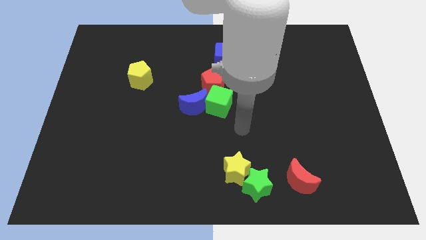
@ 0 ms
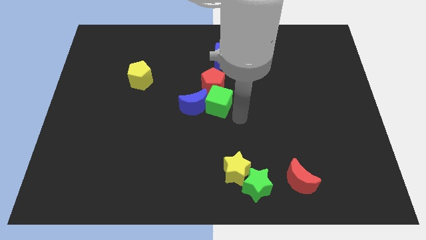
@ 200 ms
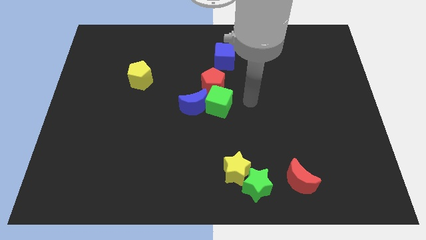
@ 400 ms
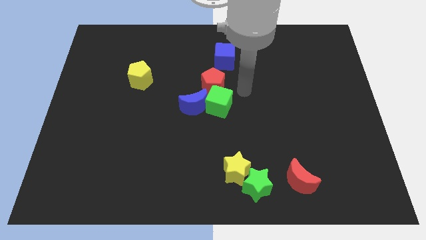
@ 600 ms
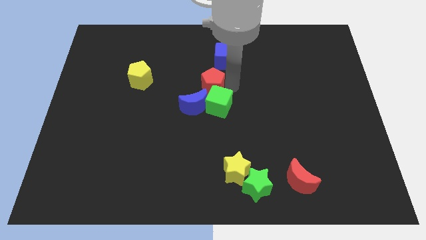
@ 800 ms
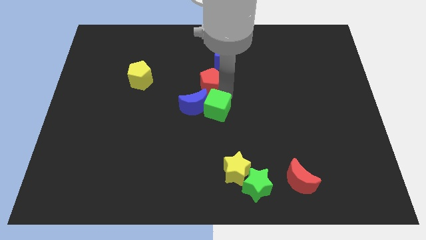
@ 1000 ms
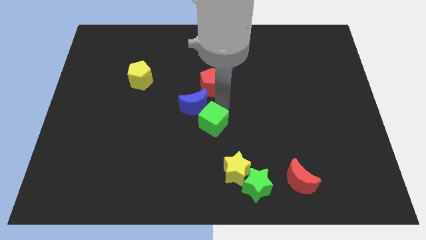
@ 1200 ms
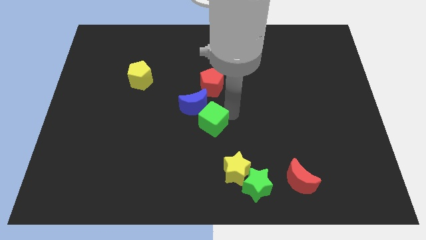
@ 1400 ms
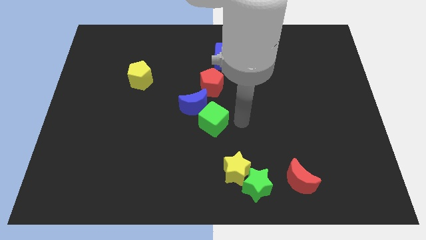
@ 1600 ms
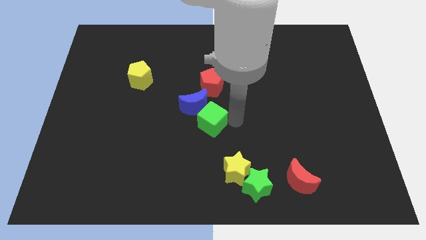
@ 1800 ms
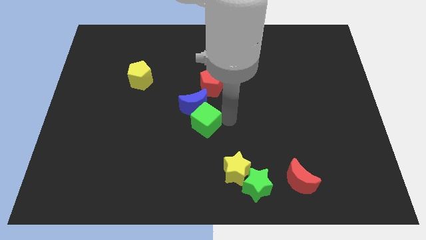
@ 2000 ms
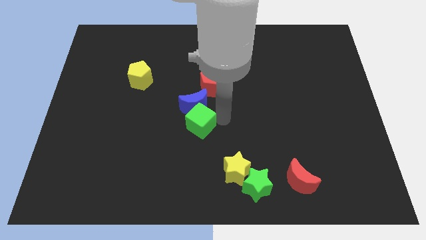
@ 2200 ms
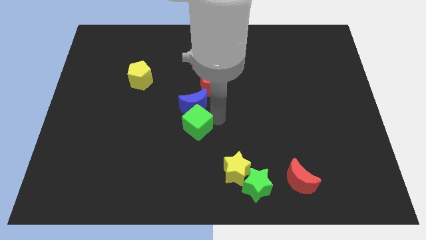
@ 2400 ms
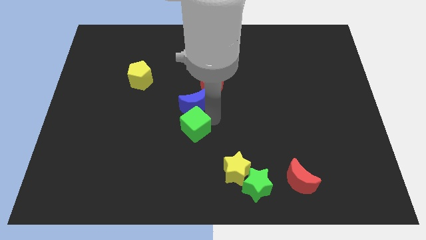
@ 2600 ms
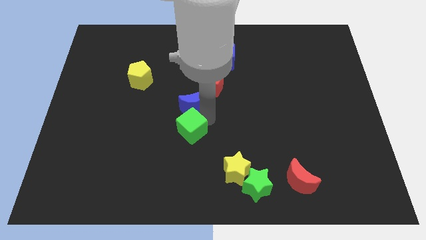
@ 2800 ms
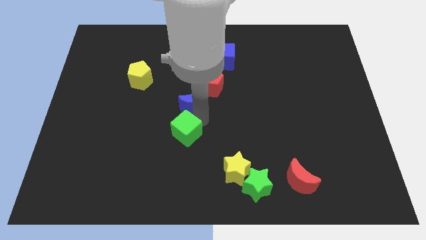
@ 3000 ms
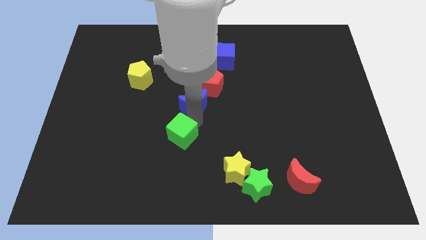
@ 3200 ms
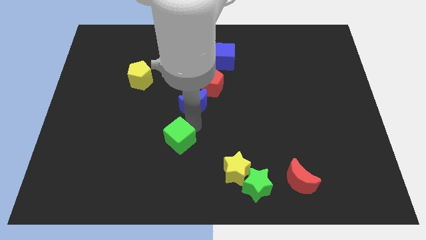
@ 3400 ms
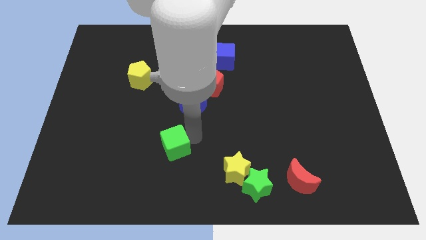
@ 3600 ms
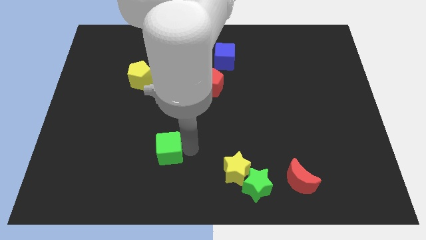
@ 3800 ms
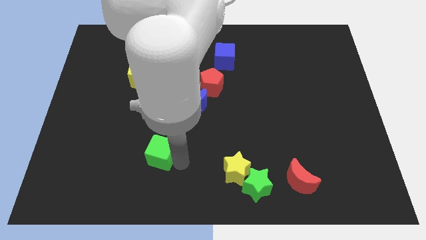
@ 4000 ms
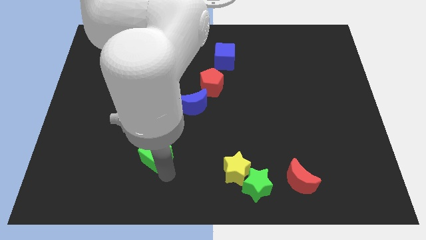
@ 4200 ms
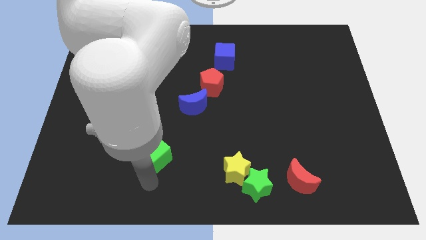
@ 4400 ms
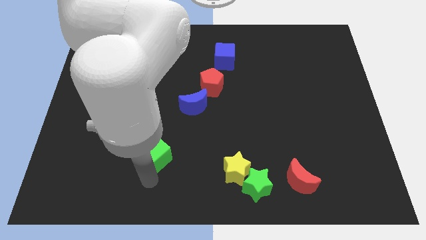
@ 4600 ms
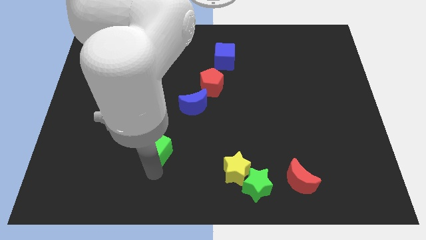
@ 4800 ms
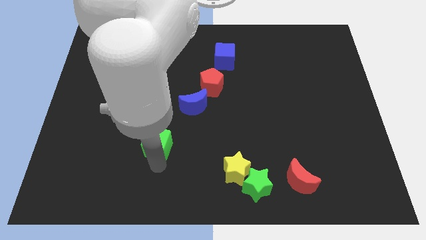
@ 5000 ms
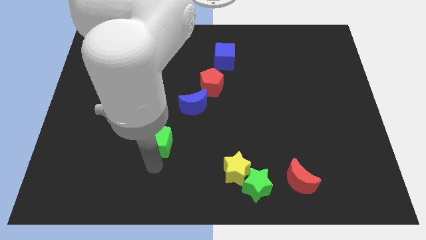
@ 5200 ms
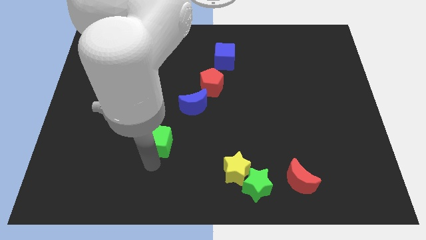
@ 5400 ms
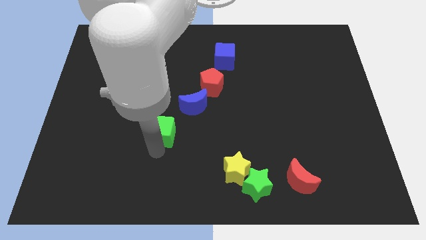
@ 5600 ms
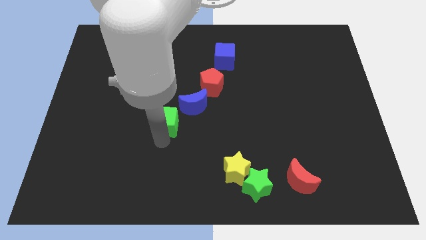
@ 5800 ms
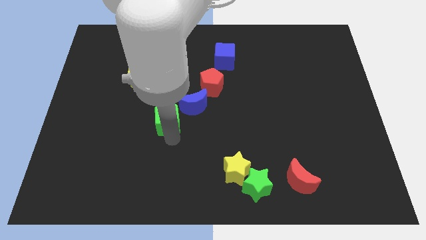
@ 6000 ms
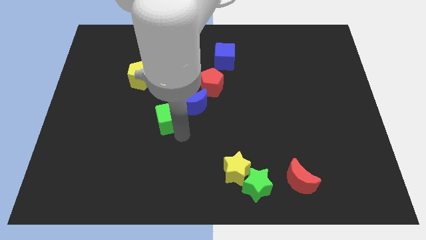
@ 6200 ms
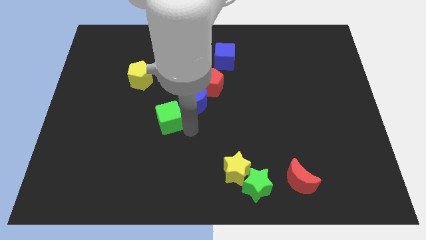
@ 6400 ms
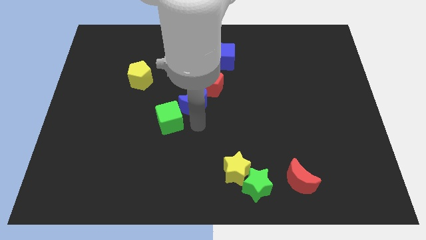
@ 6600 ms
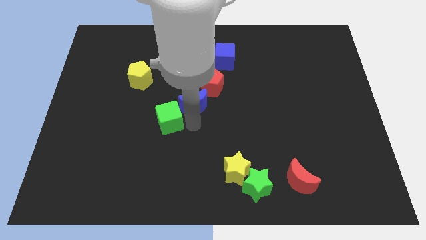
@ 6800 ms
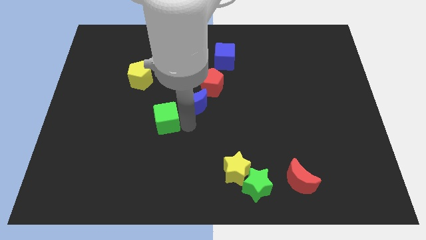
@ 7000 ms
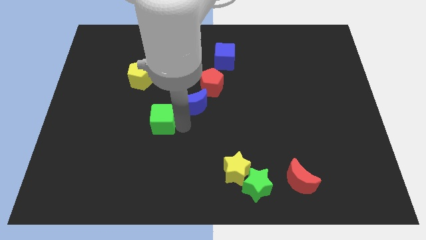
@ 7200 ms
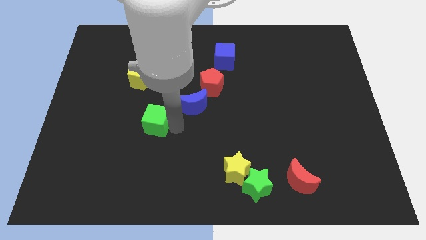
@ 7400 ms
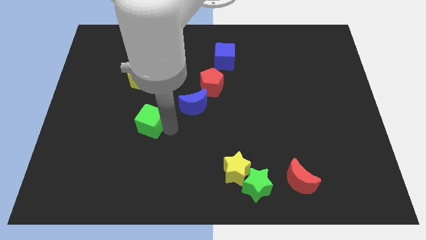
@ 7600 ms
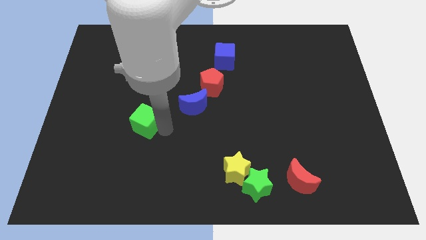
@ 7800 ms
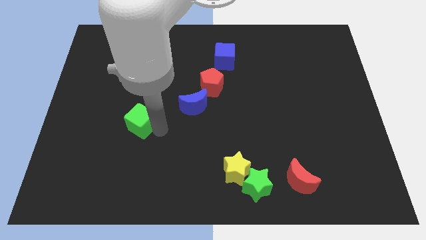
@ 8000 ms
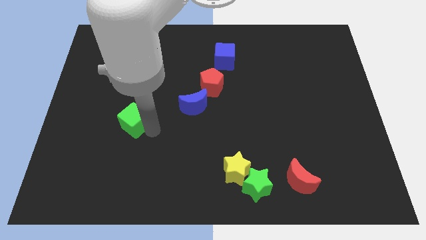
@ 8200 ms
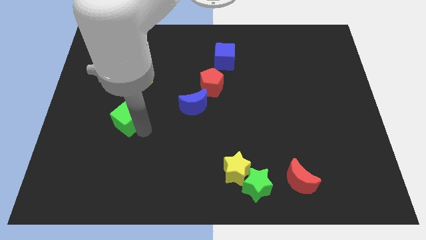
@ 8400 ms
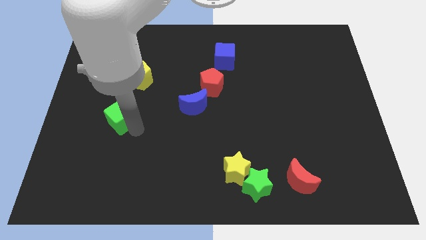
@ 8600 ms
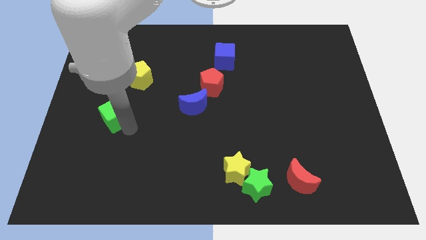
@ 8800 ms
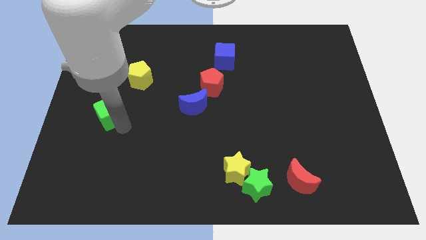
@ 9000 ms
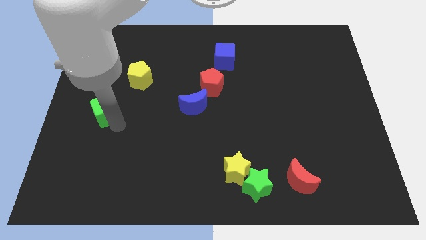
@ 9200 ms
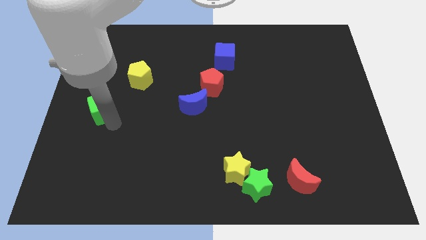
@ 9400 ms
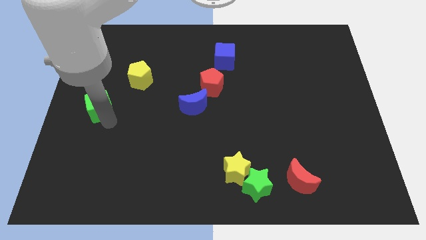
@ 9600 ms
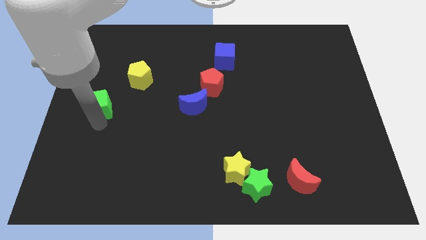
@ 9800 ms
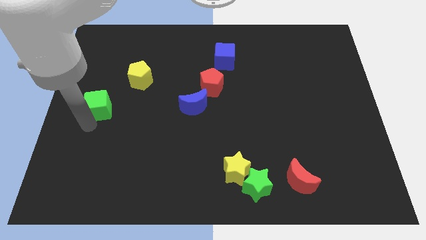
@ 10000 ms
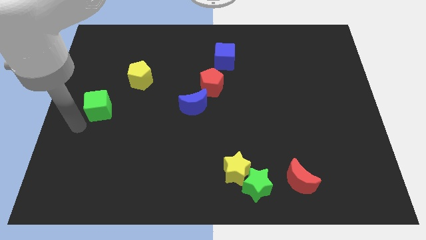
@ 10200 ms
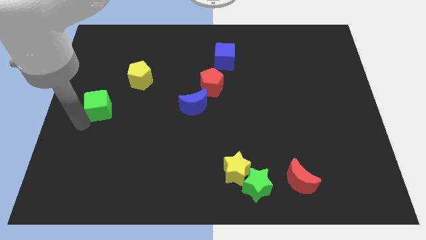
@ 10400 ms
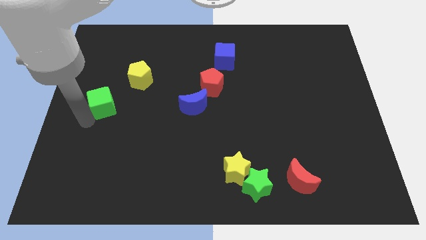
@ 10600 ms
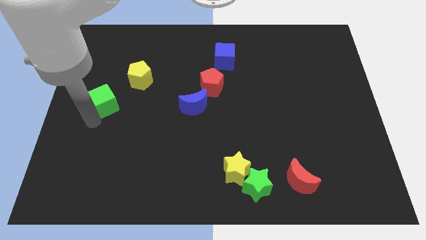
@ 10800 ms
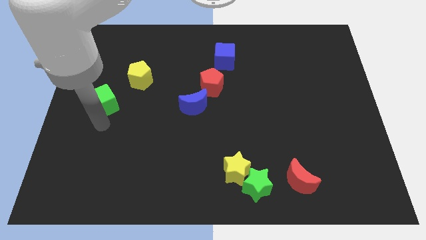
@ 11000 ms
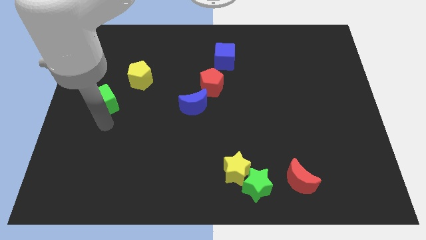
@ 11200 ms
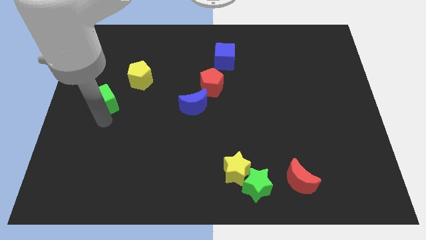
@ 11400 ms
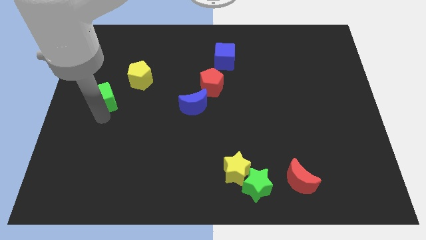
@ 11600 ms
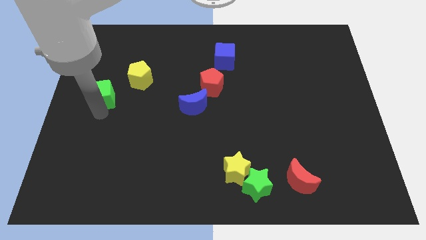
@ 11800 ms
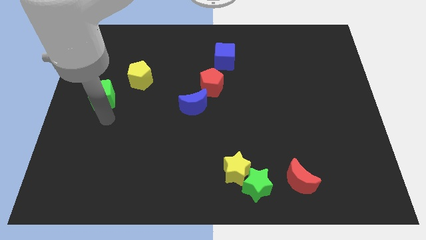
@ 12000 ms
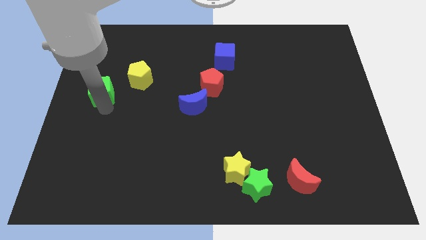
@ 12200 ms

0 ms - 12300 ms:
push the green cube just left of the yellow pentagon

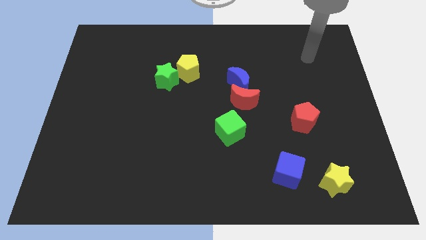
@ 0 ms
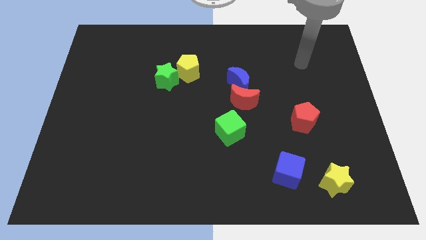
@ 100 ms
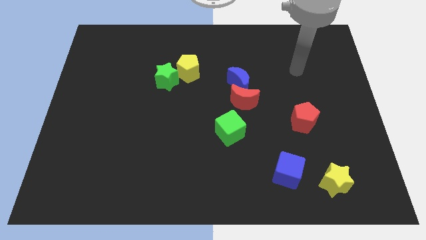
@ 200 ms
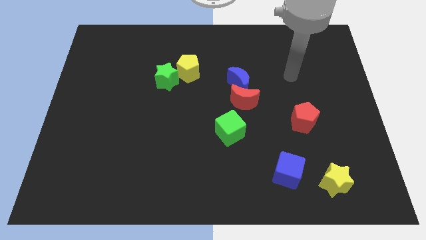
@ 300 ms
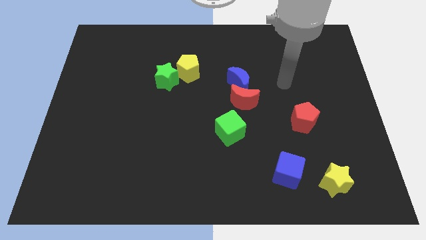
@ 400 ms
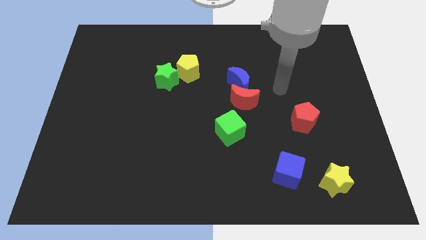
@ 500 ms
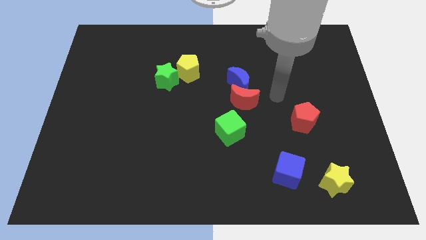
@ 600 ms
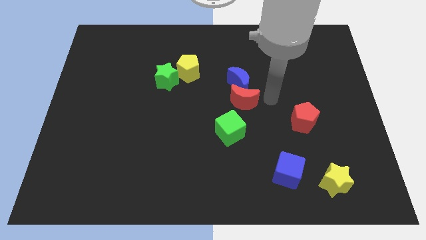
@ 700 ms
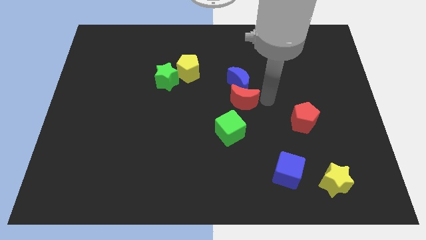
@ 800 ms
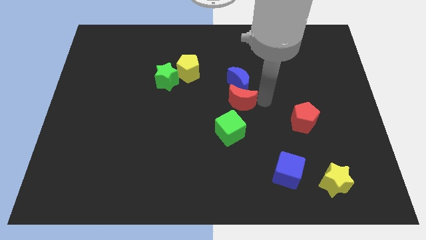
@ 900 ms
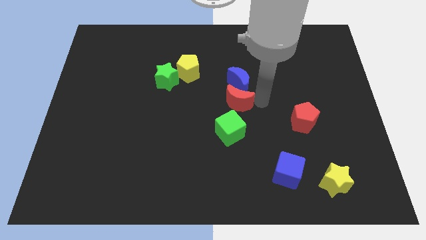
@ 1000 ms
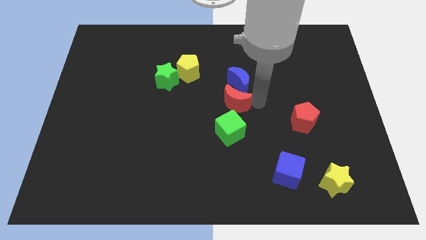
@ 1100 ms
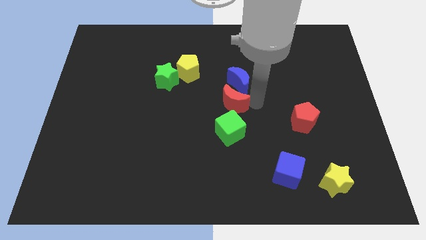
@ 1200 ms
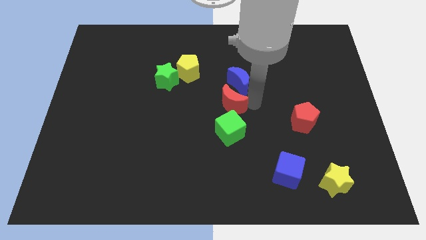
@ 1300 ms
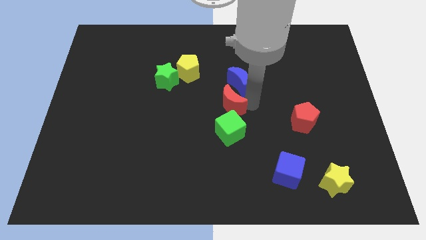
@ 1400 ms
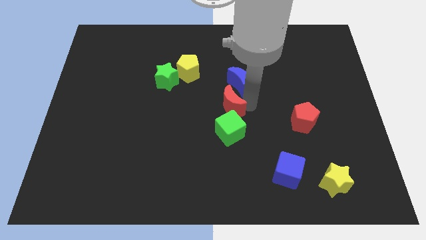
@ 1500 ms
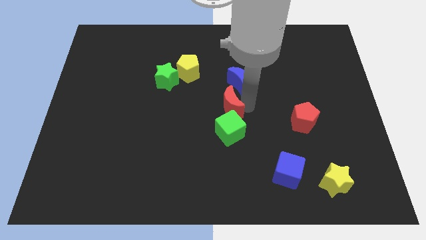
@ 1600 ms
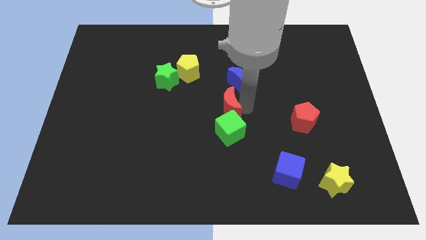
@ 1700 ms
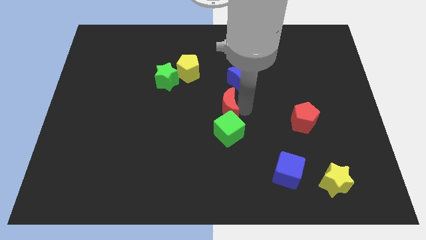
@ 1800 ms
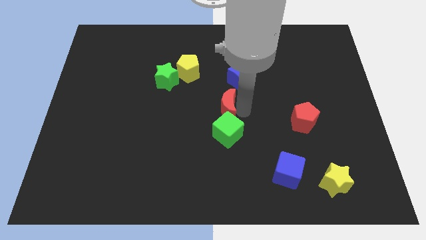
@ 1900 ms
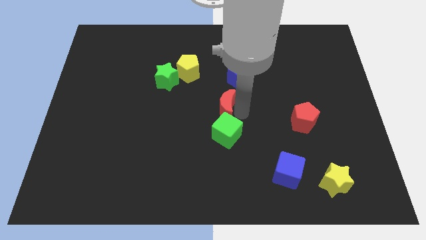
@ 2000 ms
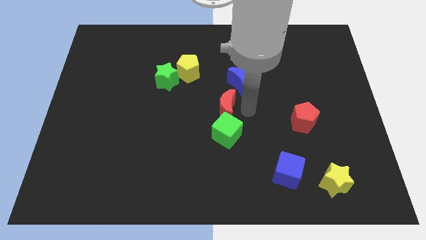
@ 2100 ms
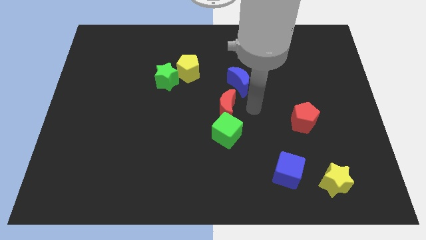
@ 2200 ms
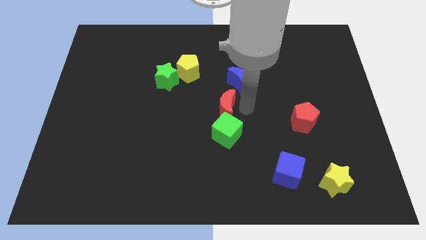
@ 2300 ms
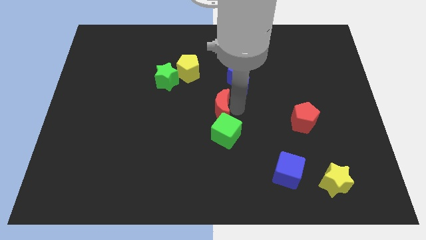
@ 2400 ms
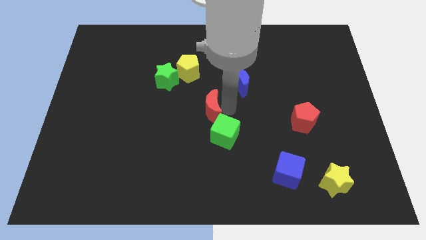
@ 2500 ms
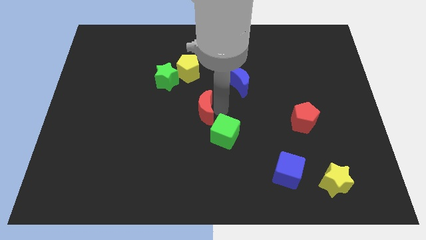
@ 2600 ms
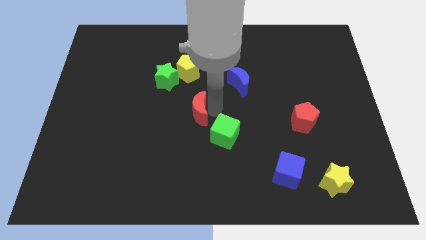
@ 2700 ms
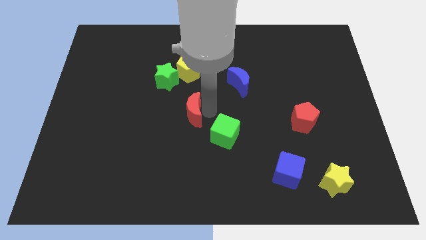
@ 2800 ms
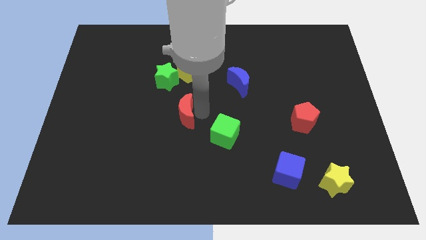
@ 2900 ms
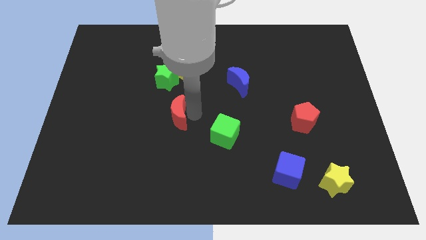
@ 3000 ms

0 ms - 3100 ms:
put the red moon to the bottom side of the green star
